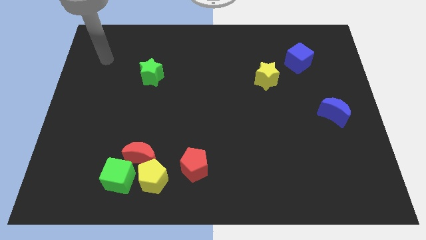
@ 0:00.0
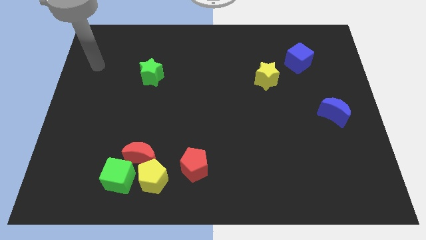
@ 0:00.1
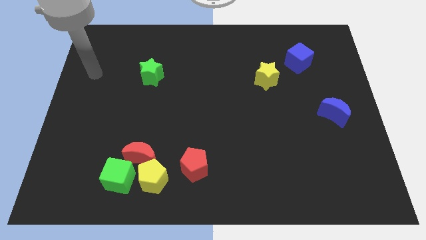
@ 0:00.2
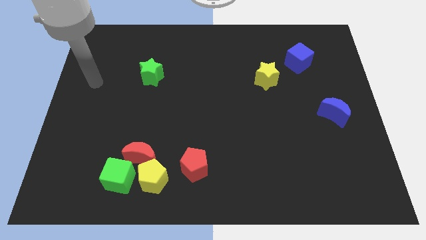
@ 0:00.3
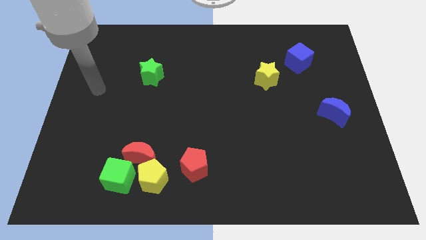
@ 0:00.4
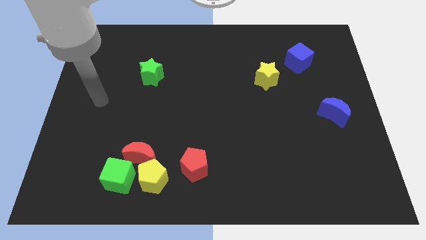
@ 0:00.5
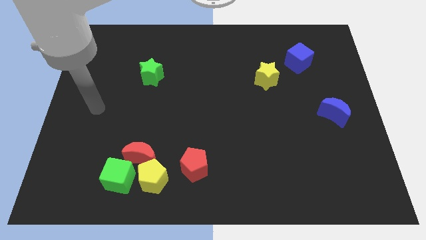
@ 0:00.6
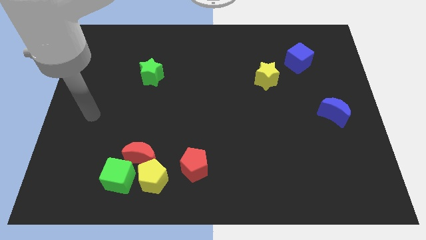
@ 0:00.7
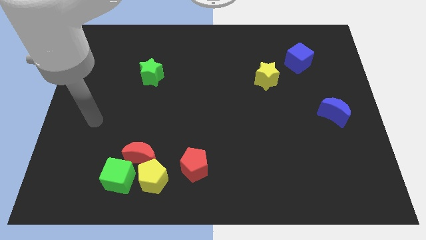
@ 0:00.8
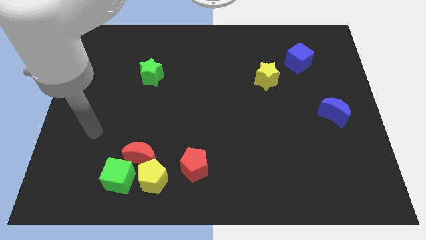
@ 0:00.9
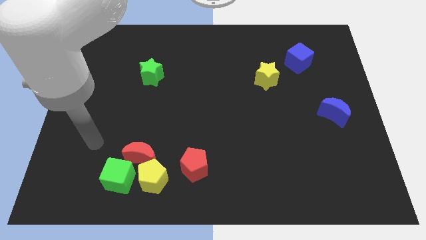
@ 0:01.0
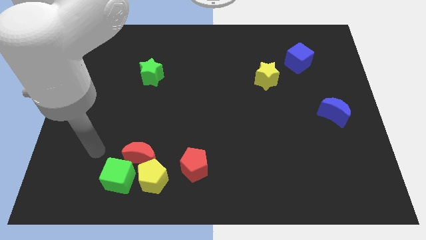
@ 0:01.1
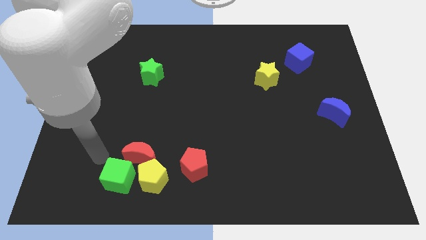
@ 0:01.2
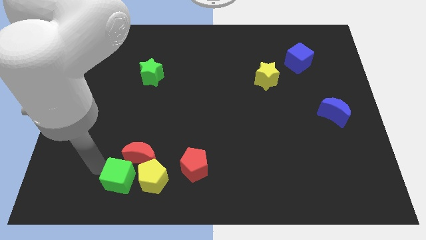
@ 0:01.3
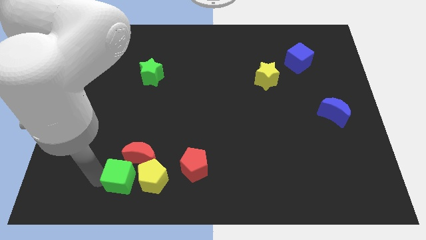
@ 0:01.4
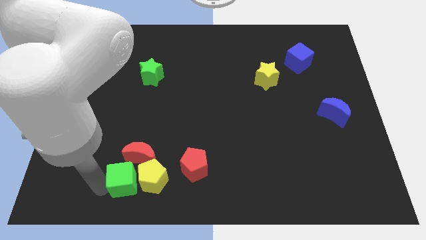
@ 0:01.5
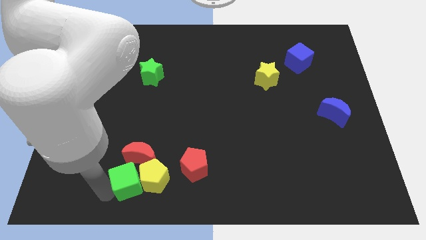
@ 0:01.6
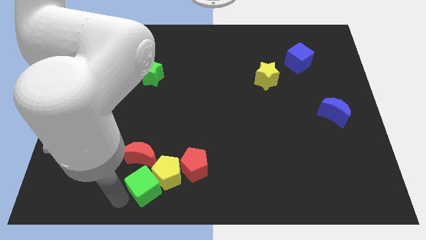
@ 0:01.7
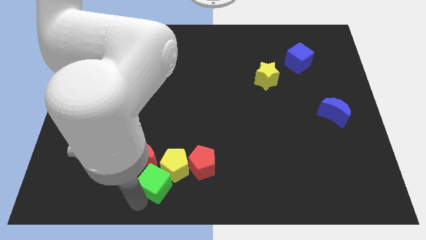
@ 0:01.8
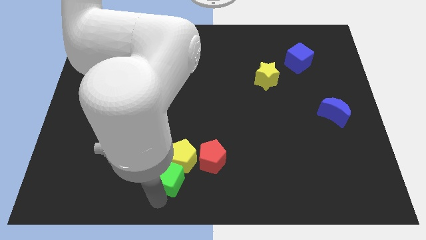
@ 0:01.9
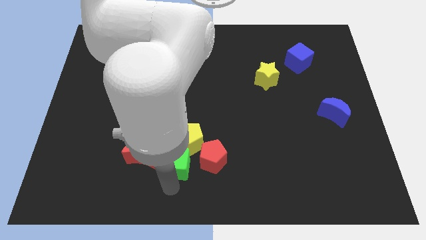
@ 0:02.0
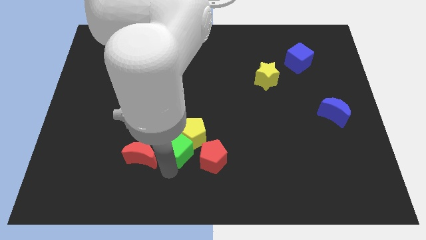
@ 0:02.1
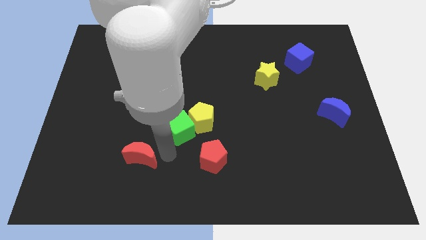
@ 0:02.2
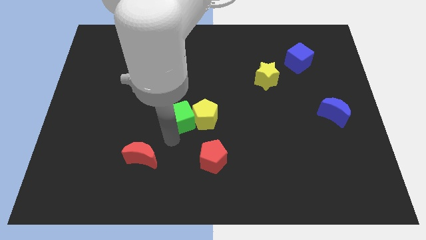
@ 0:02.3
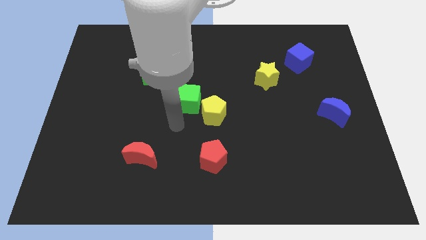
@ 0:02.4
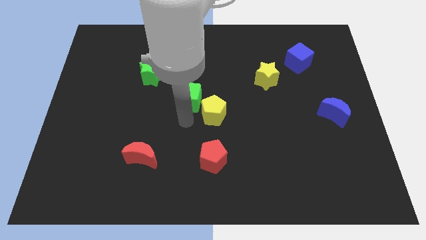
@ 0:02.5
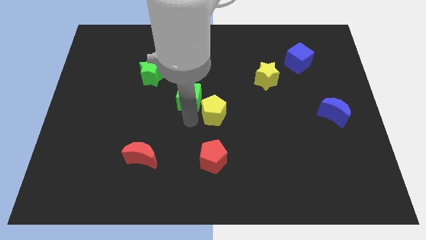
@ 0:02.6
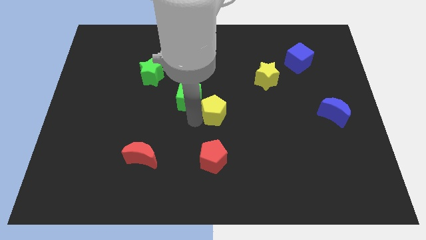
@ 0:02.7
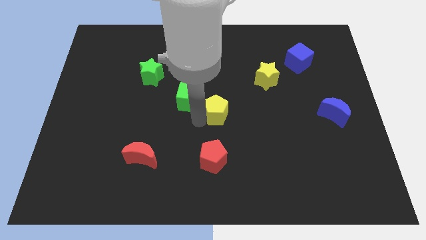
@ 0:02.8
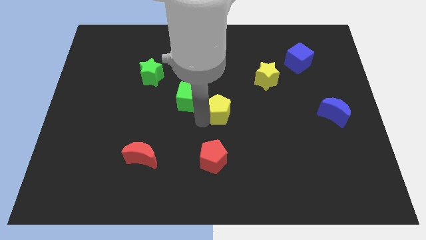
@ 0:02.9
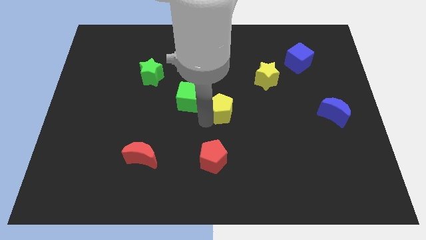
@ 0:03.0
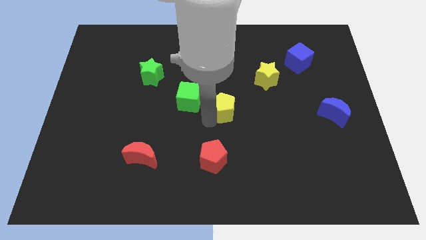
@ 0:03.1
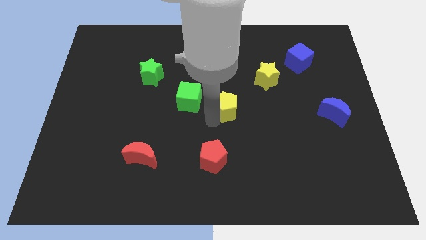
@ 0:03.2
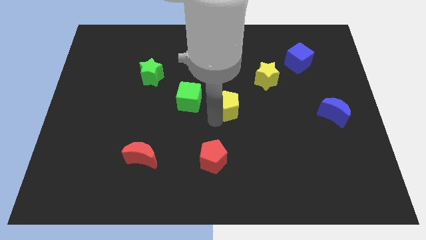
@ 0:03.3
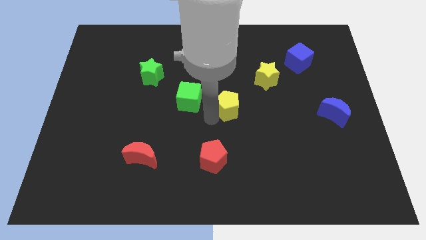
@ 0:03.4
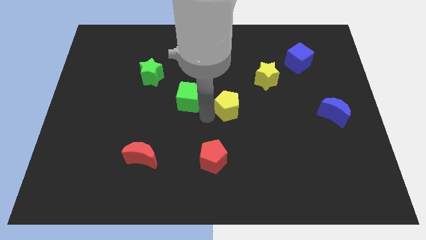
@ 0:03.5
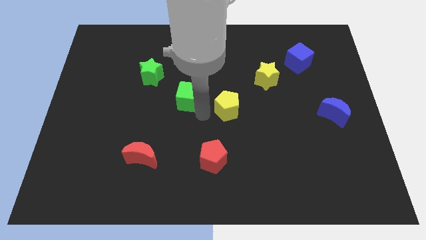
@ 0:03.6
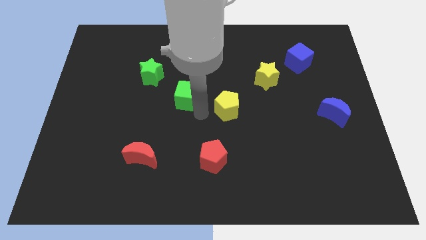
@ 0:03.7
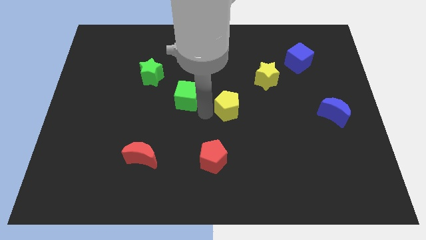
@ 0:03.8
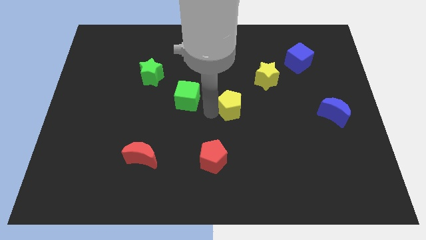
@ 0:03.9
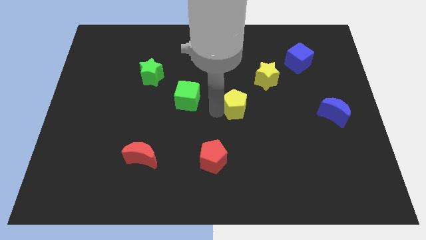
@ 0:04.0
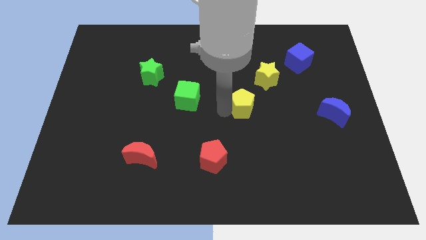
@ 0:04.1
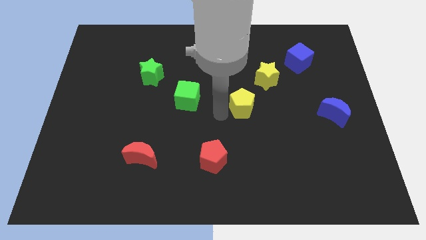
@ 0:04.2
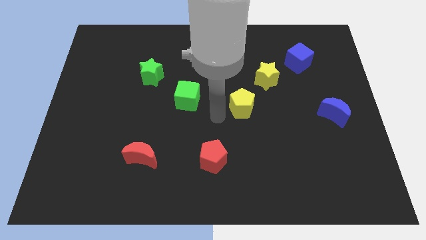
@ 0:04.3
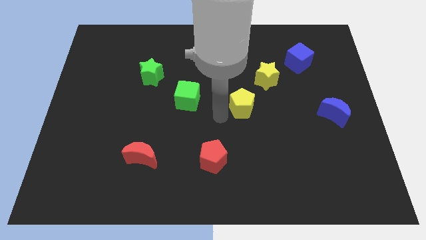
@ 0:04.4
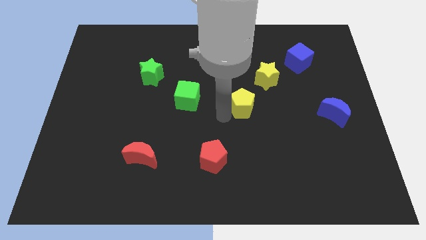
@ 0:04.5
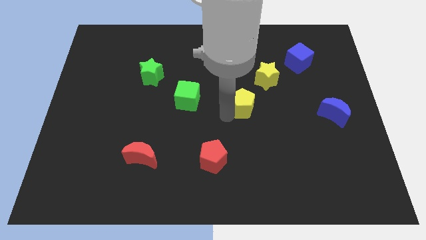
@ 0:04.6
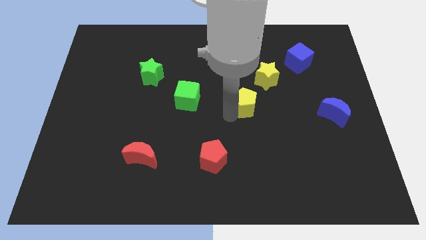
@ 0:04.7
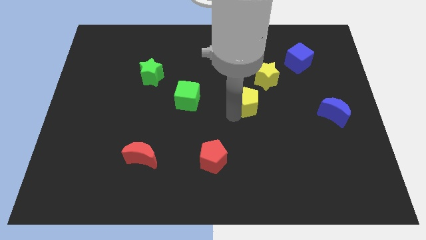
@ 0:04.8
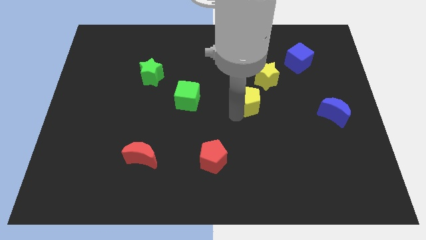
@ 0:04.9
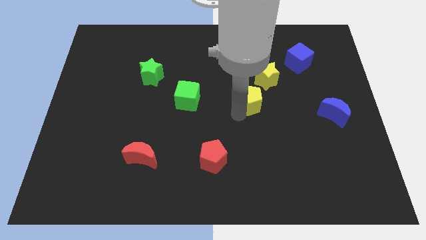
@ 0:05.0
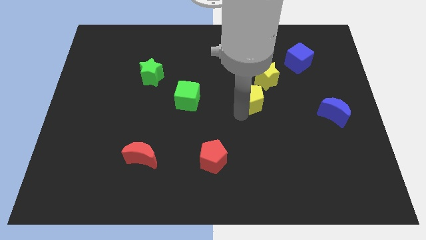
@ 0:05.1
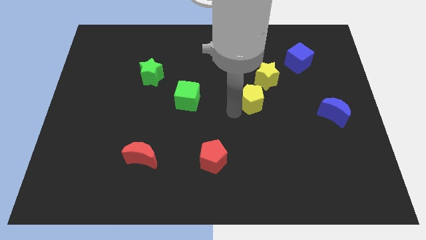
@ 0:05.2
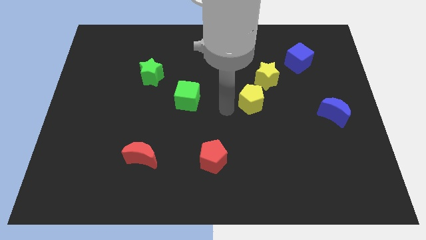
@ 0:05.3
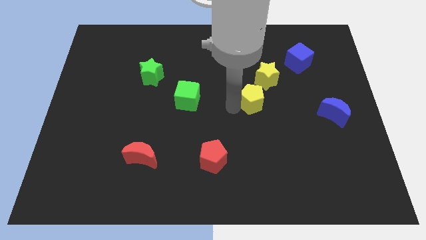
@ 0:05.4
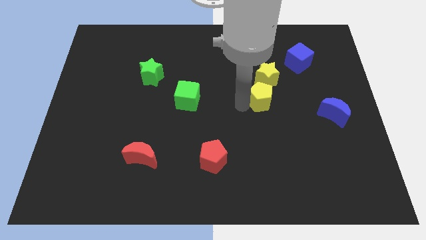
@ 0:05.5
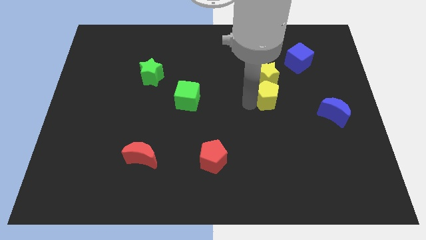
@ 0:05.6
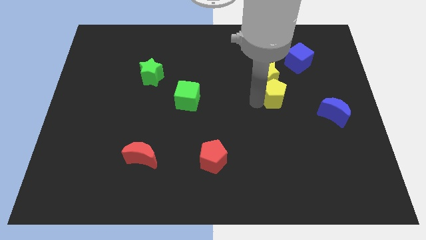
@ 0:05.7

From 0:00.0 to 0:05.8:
put the yellow pentagon to the bottom right of the yellow star
